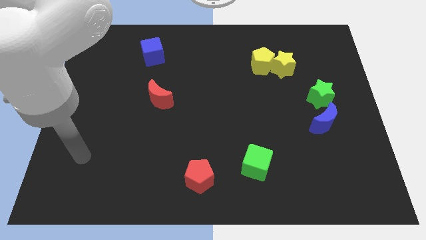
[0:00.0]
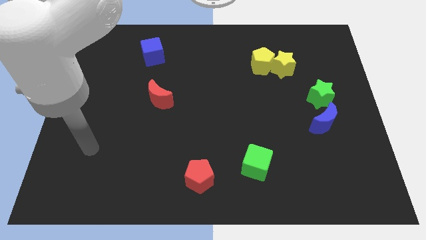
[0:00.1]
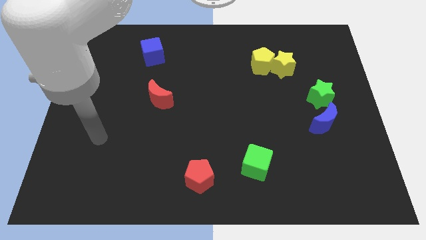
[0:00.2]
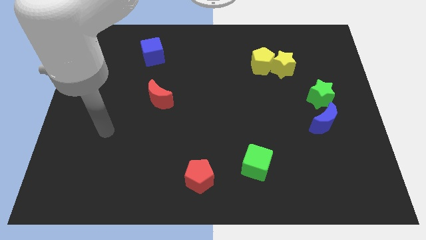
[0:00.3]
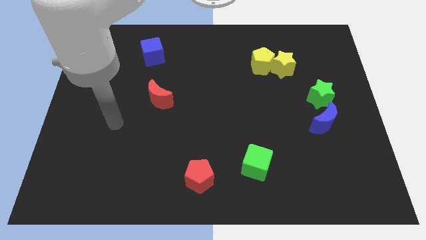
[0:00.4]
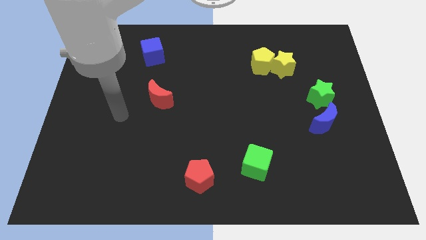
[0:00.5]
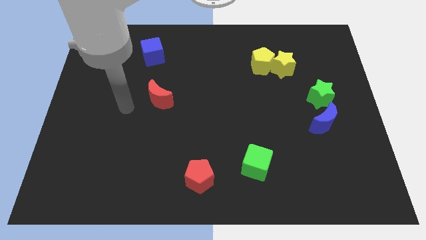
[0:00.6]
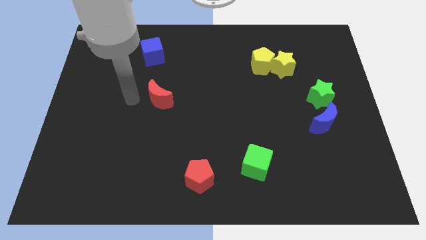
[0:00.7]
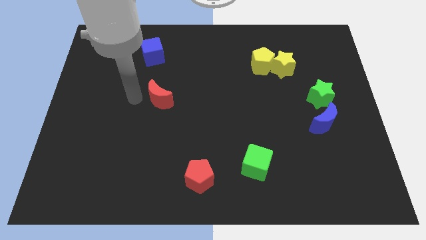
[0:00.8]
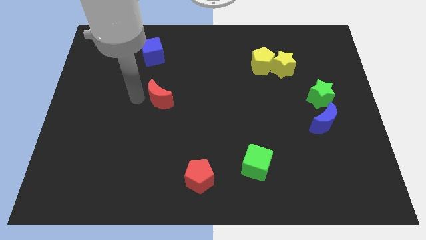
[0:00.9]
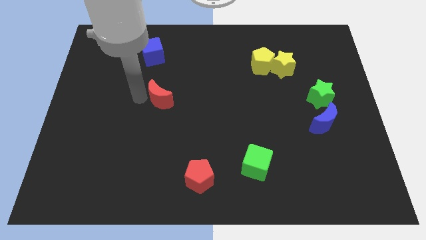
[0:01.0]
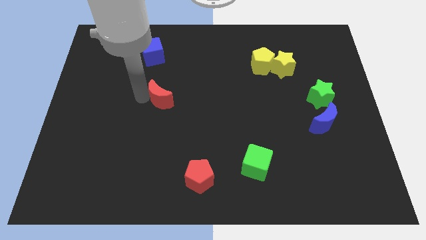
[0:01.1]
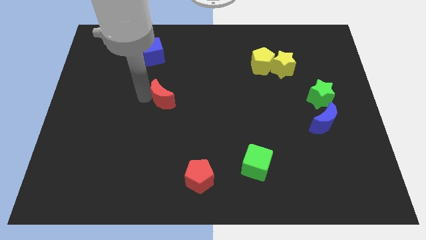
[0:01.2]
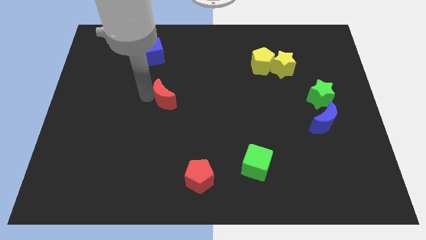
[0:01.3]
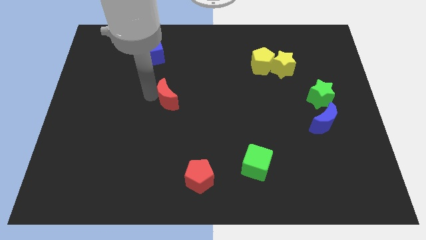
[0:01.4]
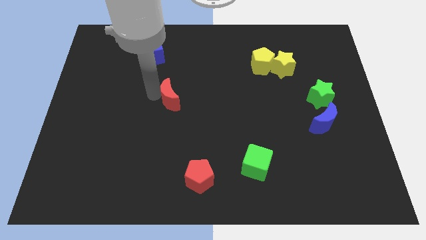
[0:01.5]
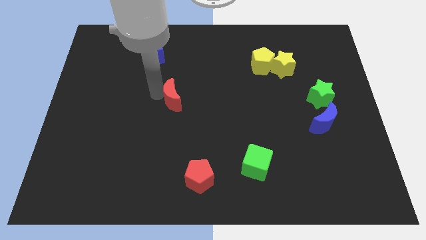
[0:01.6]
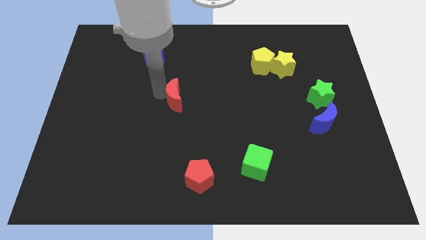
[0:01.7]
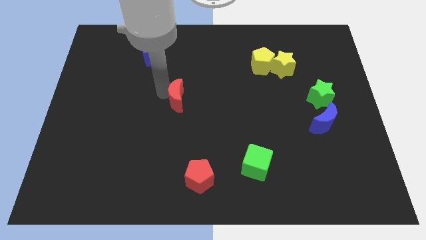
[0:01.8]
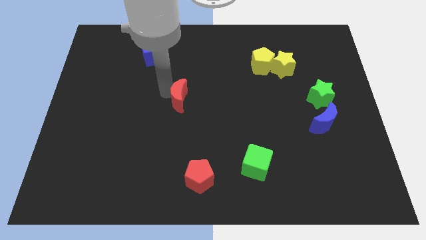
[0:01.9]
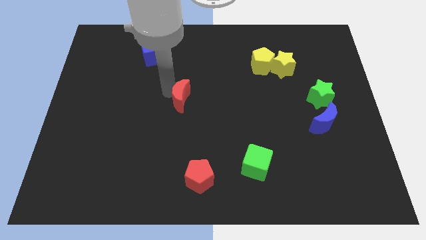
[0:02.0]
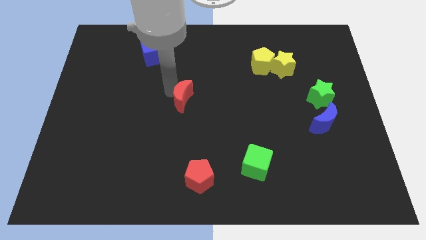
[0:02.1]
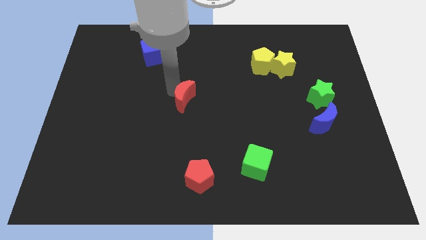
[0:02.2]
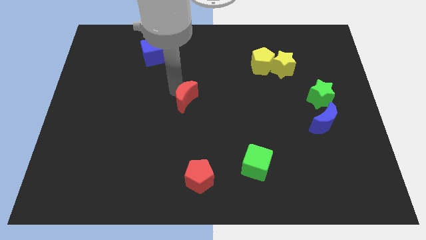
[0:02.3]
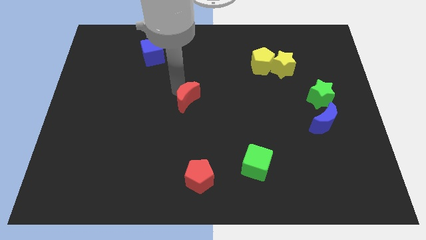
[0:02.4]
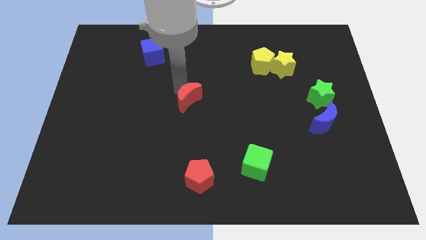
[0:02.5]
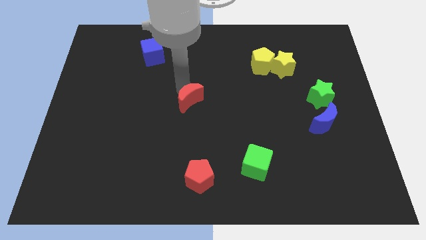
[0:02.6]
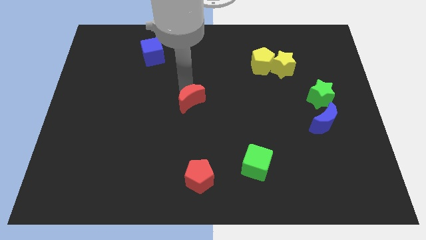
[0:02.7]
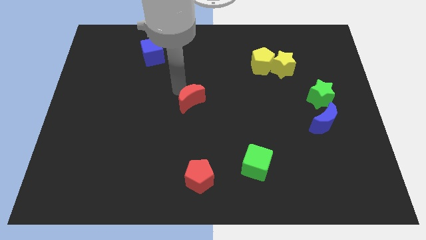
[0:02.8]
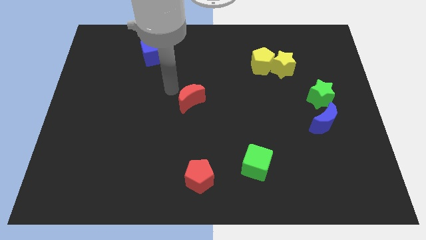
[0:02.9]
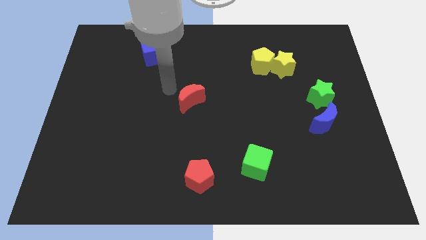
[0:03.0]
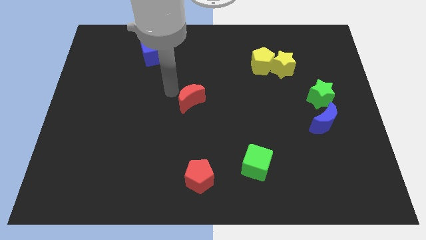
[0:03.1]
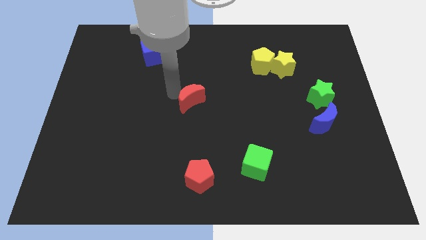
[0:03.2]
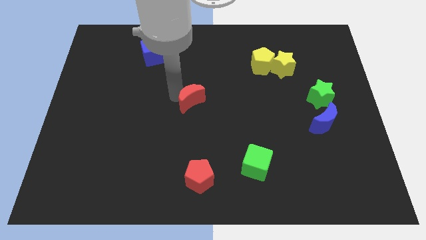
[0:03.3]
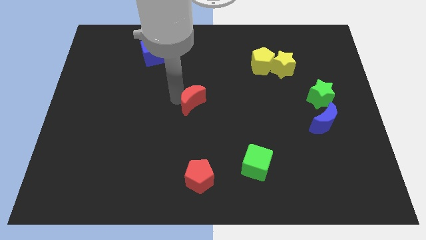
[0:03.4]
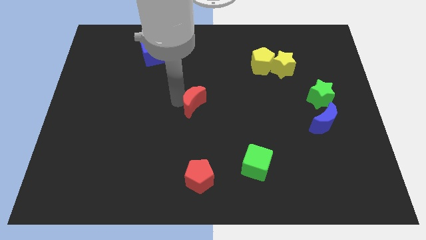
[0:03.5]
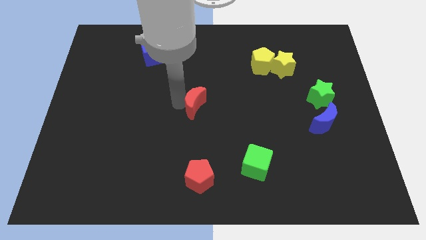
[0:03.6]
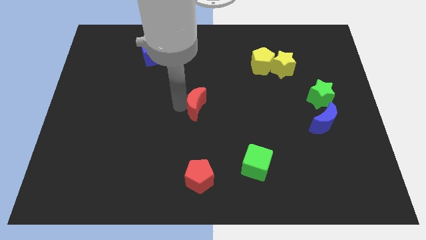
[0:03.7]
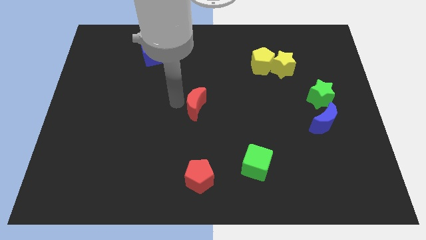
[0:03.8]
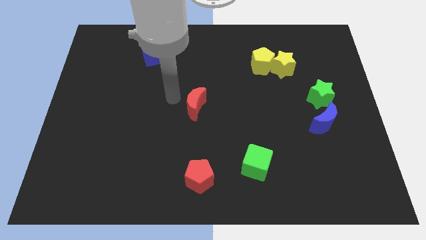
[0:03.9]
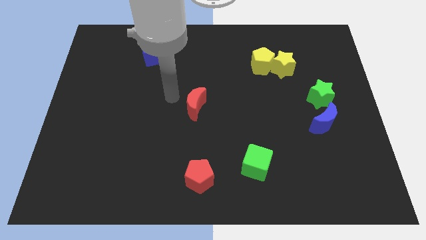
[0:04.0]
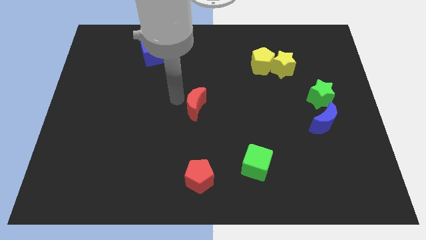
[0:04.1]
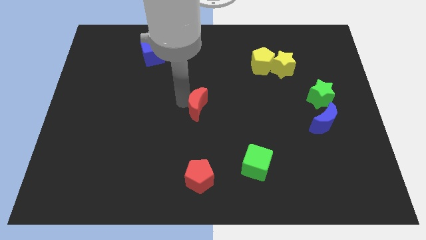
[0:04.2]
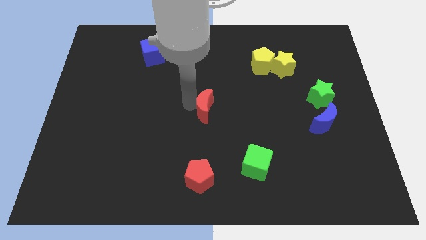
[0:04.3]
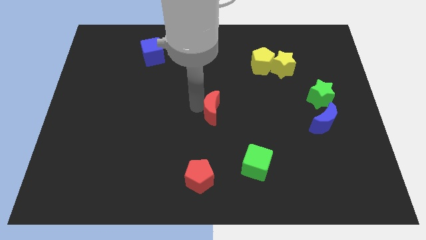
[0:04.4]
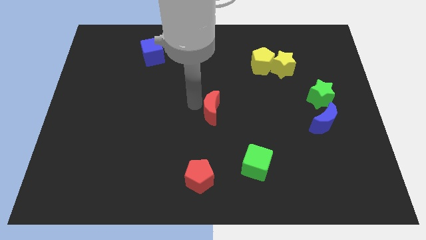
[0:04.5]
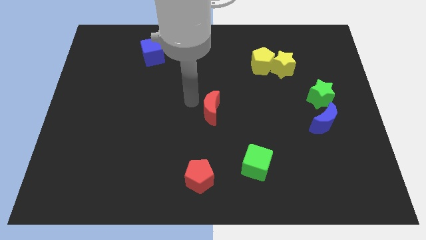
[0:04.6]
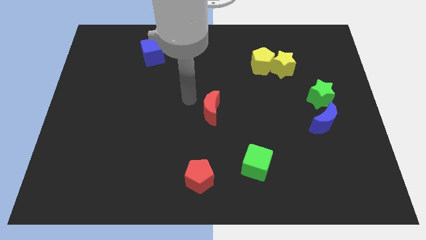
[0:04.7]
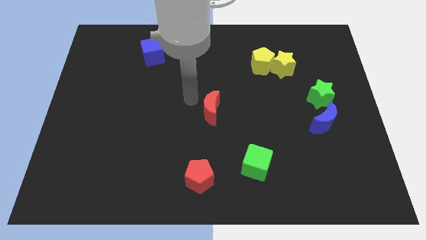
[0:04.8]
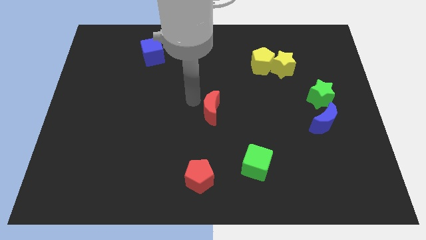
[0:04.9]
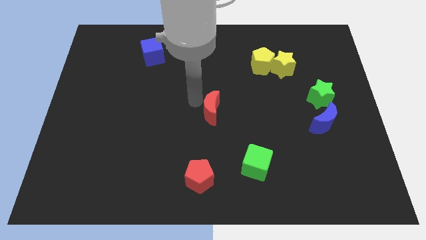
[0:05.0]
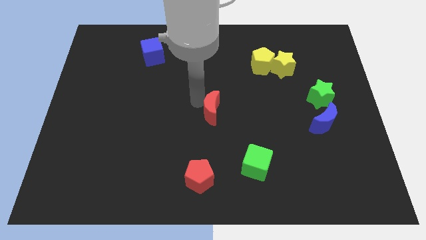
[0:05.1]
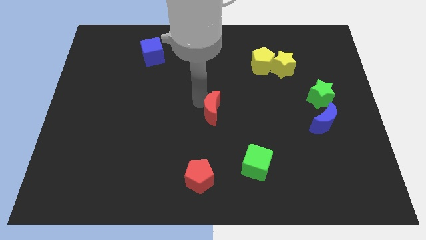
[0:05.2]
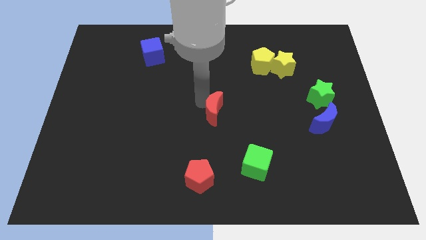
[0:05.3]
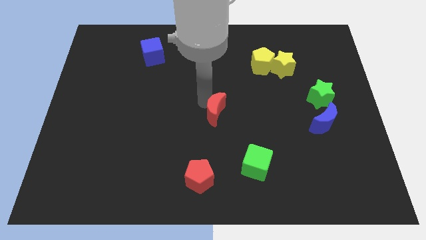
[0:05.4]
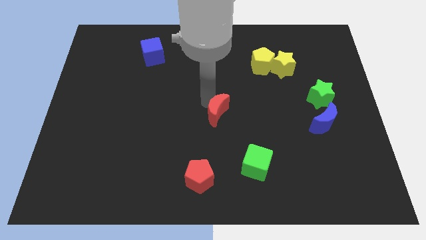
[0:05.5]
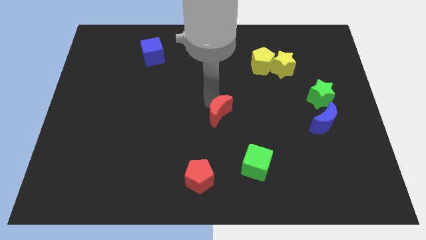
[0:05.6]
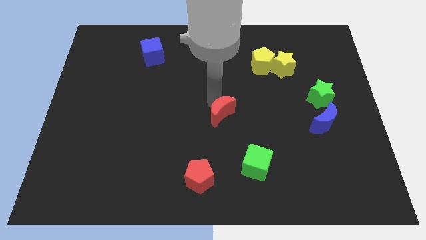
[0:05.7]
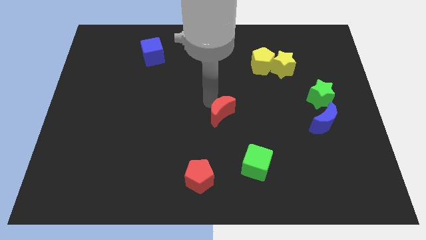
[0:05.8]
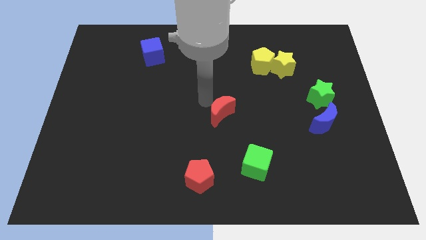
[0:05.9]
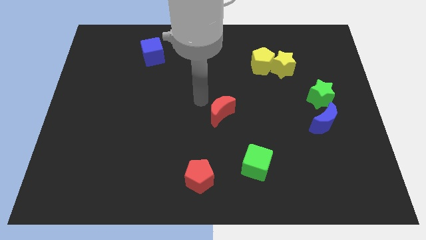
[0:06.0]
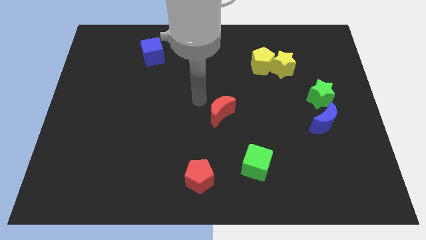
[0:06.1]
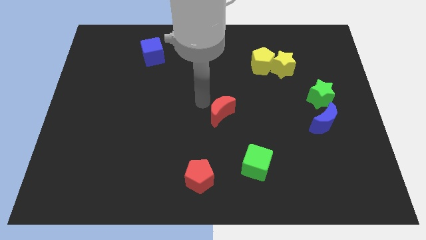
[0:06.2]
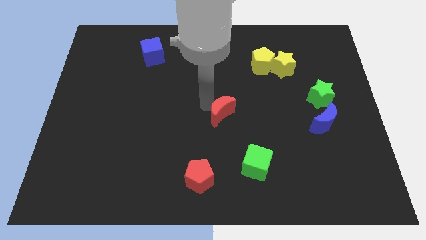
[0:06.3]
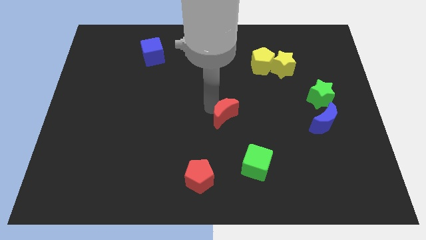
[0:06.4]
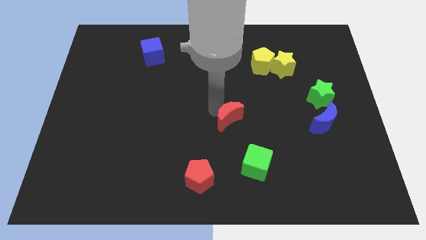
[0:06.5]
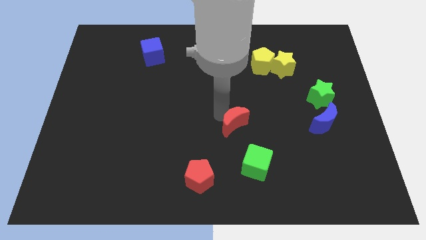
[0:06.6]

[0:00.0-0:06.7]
put the red moon to the top of the green cube

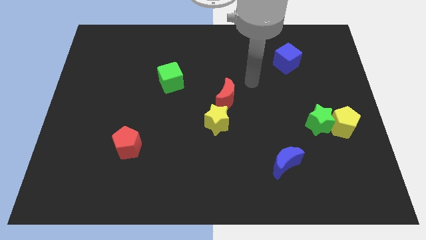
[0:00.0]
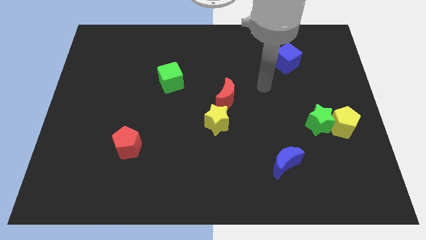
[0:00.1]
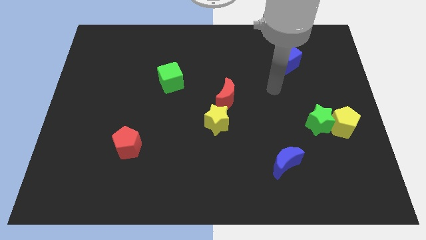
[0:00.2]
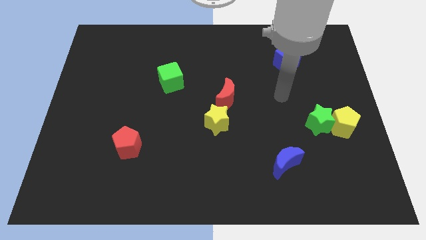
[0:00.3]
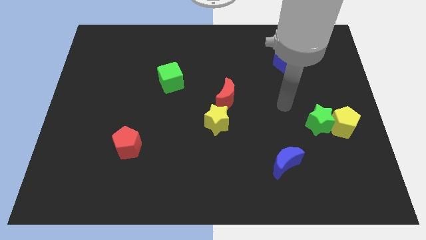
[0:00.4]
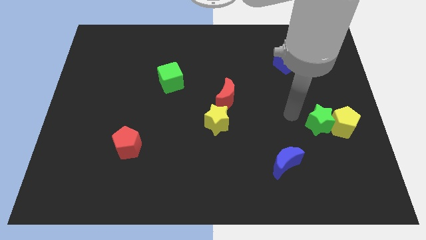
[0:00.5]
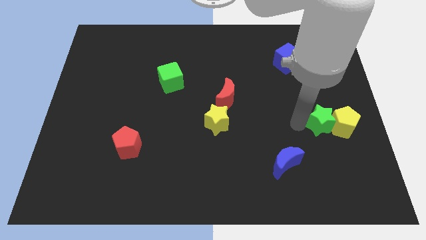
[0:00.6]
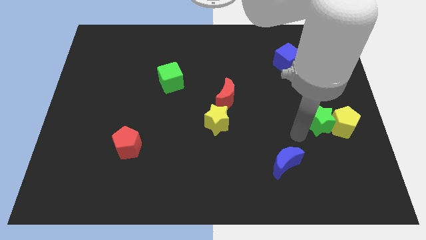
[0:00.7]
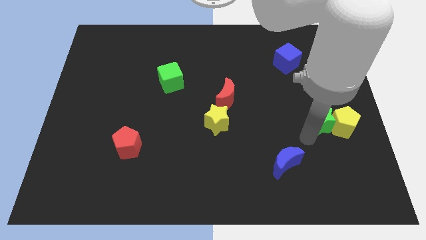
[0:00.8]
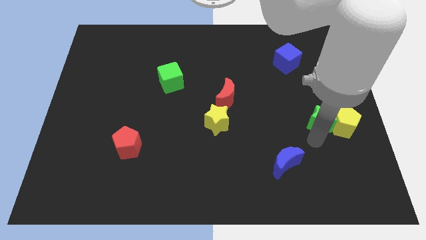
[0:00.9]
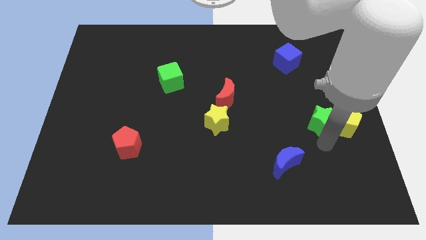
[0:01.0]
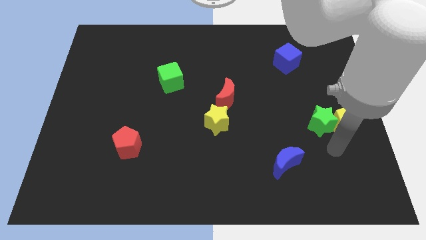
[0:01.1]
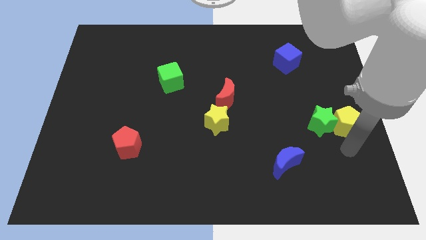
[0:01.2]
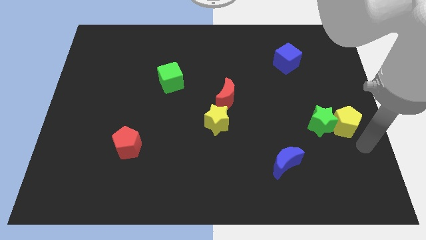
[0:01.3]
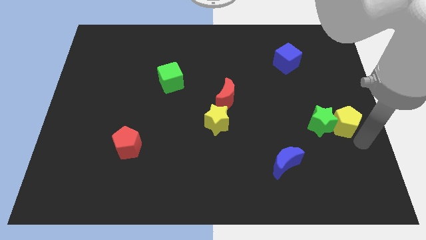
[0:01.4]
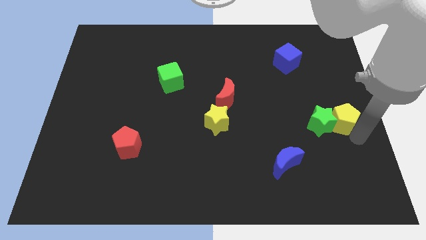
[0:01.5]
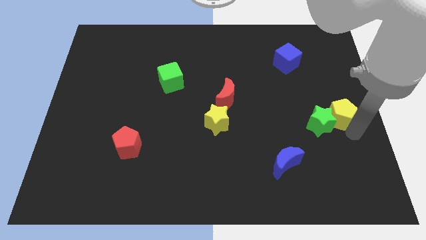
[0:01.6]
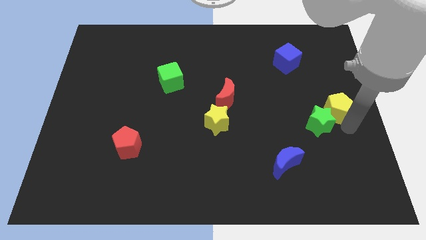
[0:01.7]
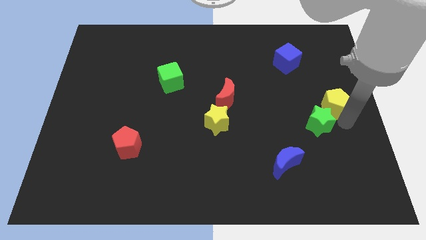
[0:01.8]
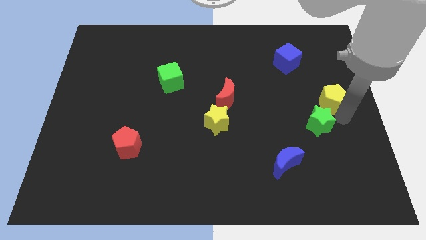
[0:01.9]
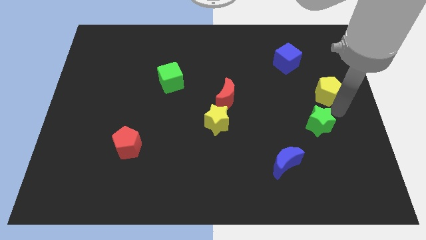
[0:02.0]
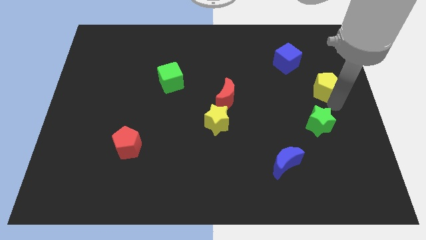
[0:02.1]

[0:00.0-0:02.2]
move the yellow pentagon to the bottom right of the blue cube
